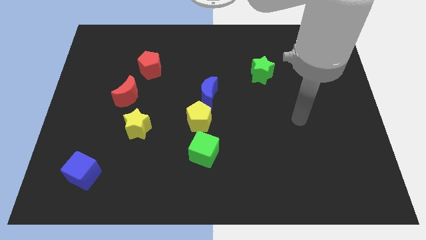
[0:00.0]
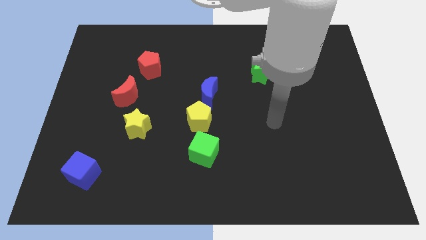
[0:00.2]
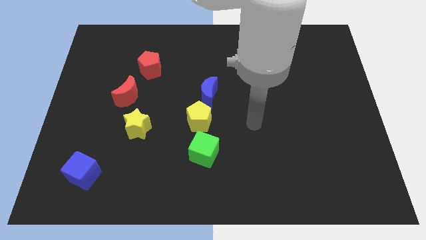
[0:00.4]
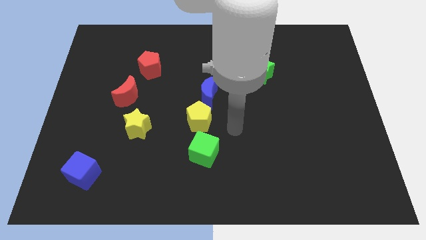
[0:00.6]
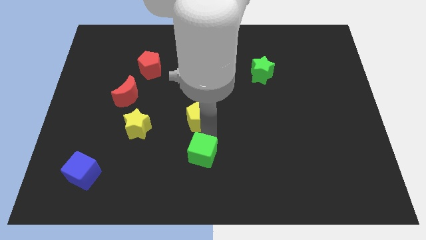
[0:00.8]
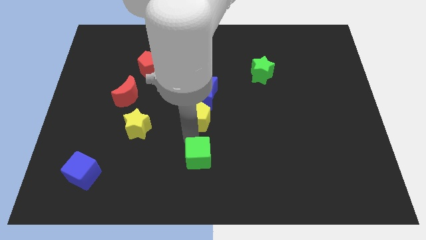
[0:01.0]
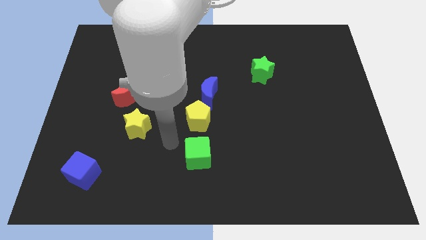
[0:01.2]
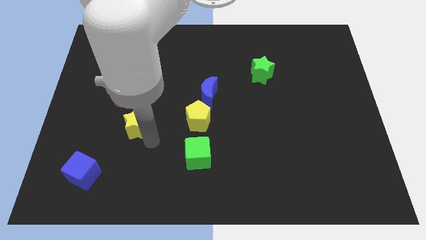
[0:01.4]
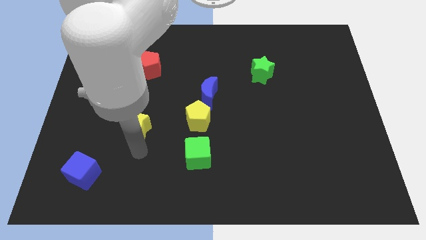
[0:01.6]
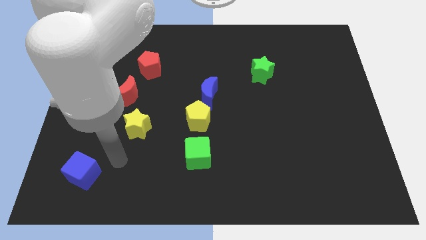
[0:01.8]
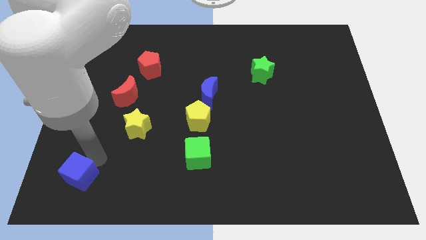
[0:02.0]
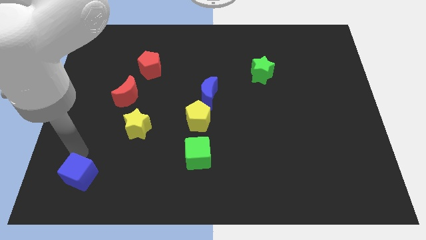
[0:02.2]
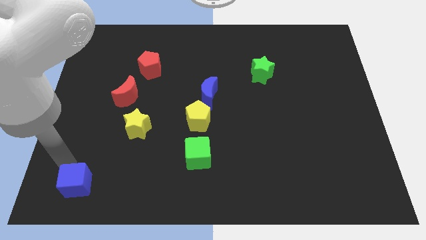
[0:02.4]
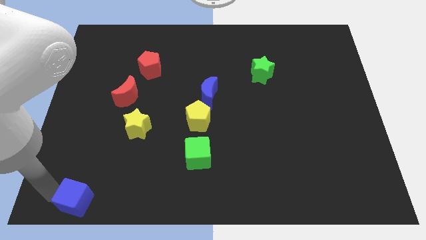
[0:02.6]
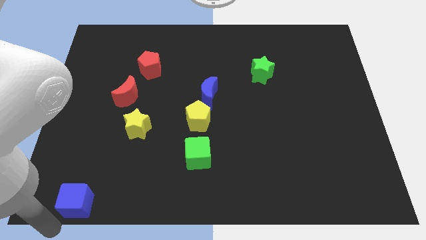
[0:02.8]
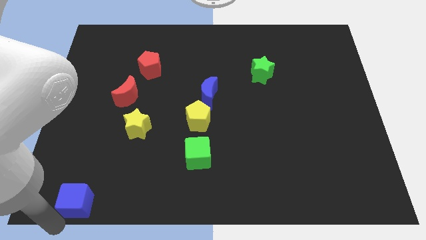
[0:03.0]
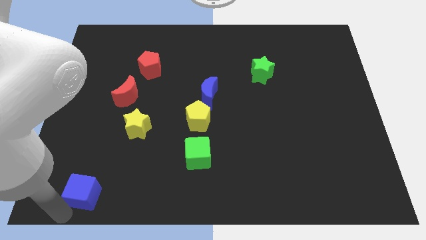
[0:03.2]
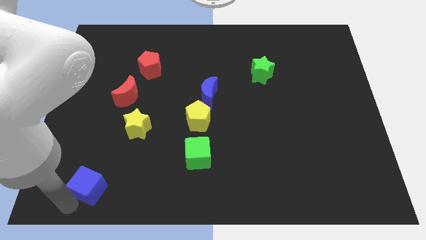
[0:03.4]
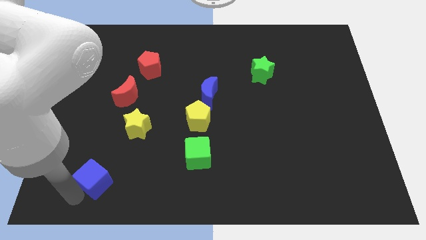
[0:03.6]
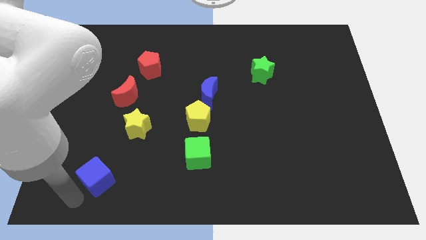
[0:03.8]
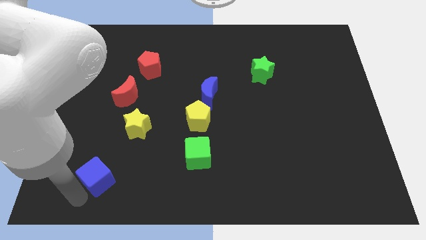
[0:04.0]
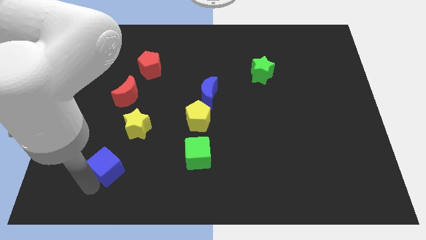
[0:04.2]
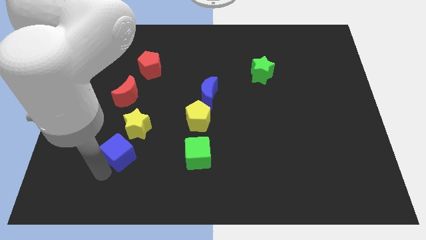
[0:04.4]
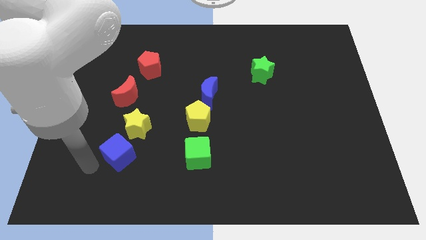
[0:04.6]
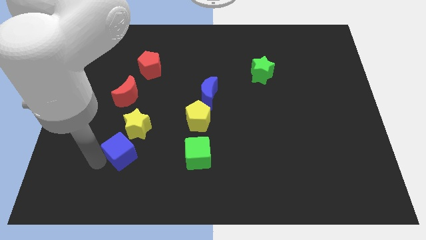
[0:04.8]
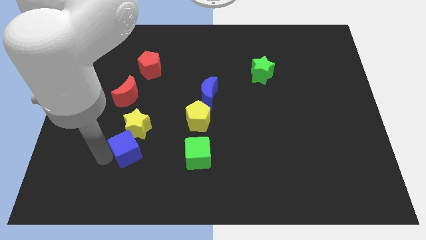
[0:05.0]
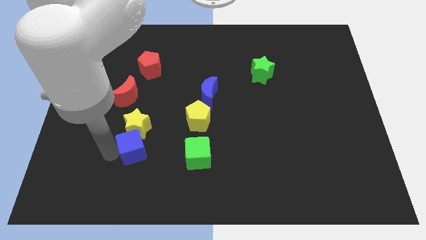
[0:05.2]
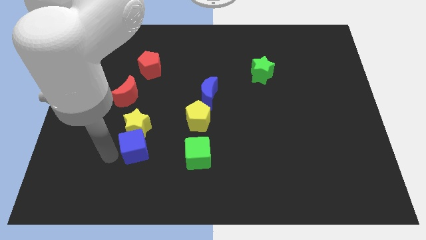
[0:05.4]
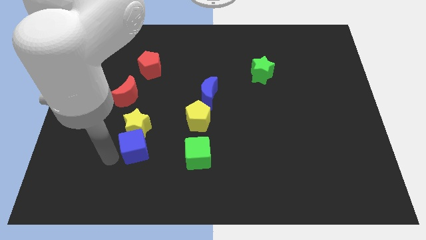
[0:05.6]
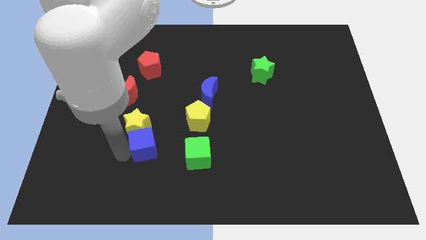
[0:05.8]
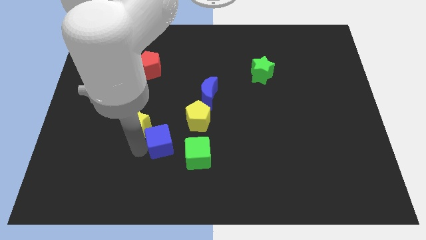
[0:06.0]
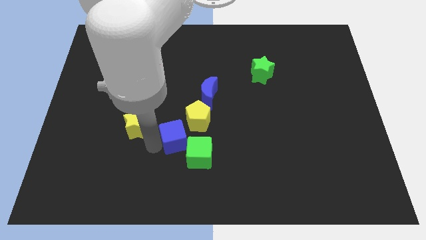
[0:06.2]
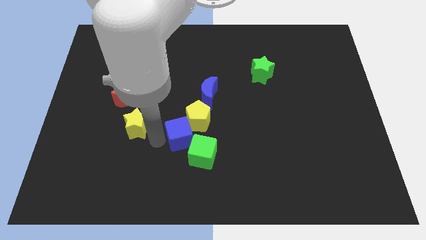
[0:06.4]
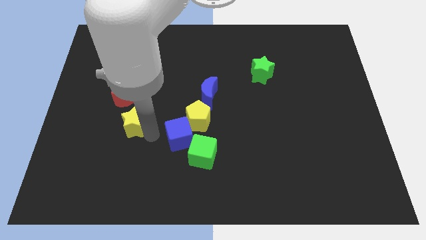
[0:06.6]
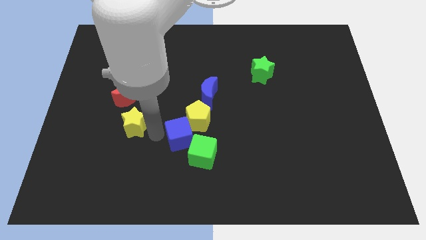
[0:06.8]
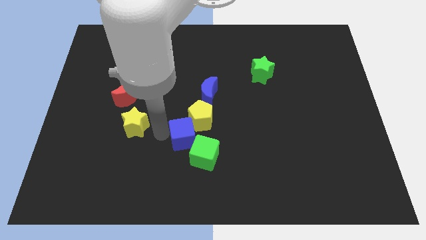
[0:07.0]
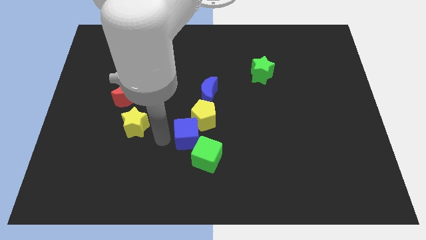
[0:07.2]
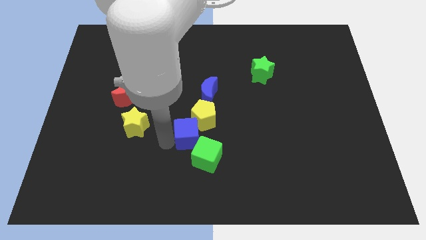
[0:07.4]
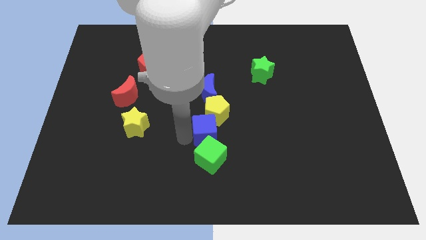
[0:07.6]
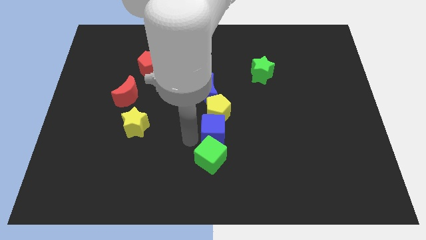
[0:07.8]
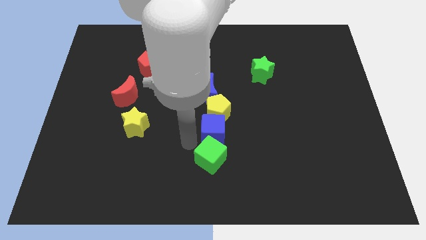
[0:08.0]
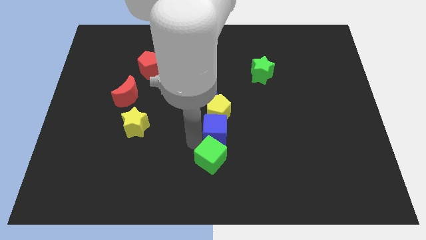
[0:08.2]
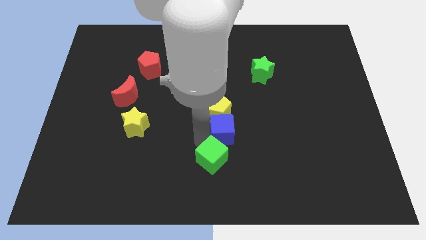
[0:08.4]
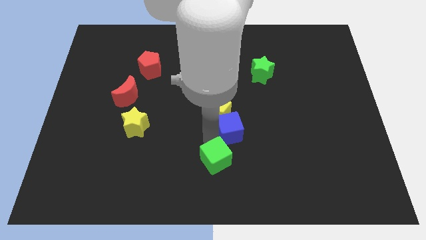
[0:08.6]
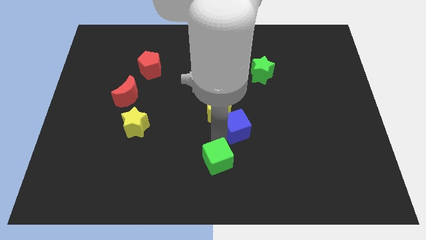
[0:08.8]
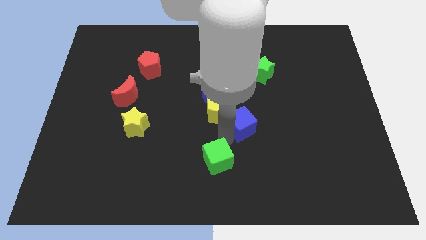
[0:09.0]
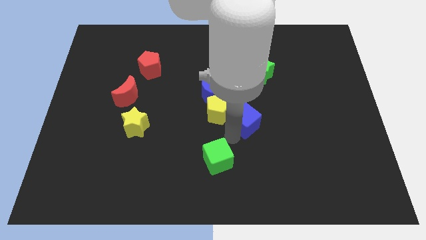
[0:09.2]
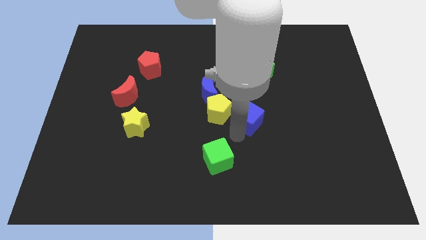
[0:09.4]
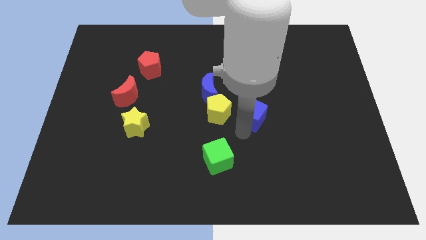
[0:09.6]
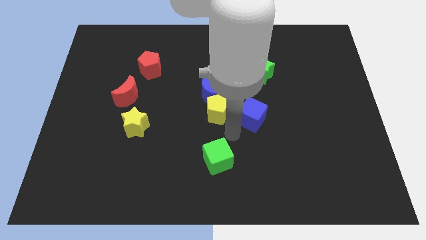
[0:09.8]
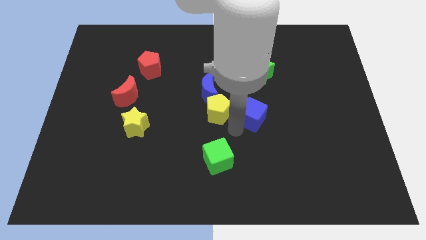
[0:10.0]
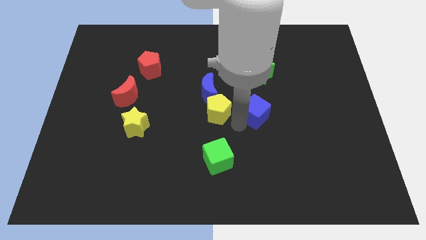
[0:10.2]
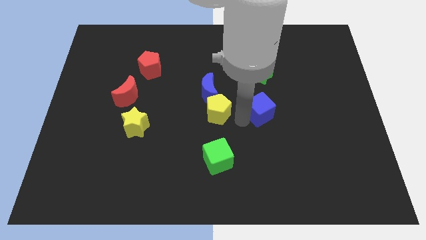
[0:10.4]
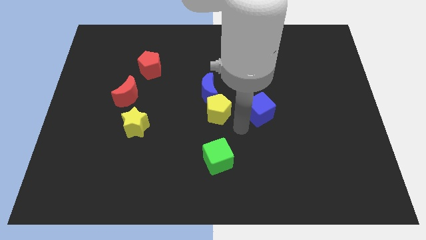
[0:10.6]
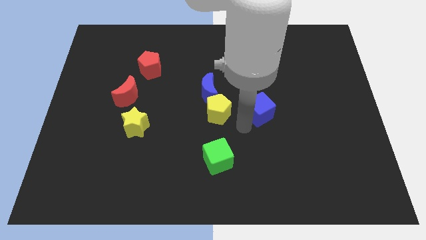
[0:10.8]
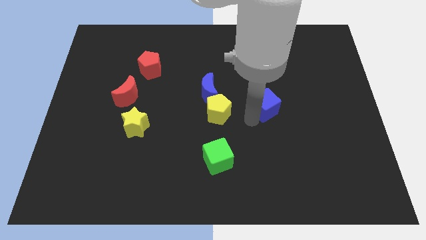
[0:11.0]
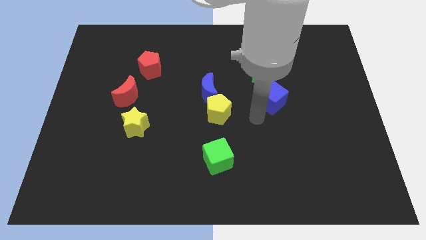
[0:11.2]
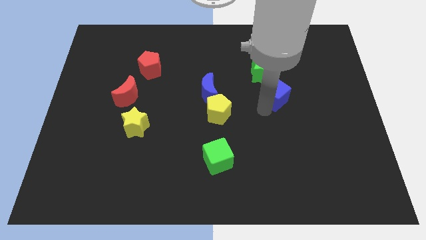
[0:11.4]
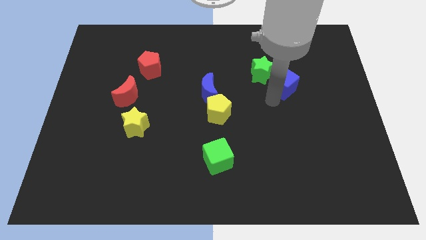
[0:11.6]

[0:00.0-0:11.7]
push the blue cube just right of the green star

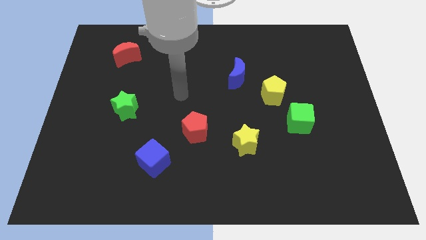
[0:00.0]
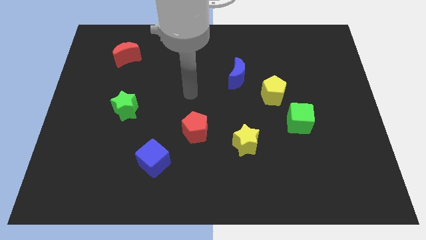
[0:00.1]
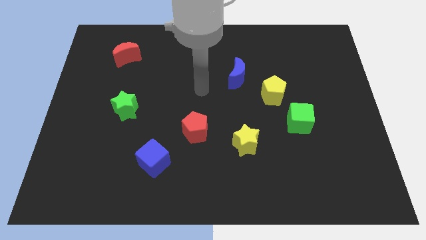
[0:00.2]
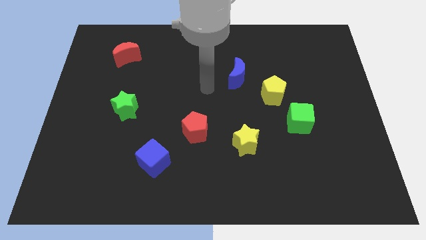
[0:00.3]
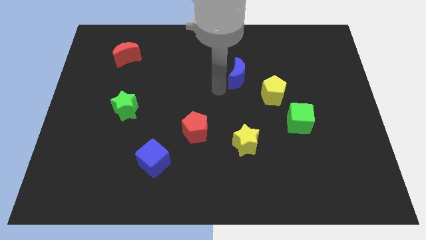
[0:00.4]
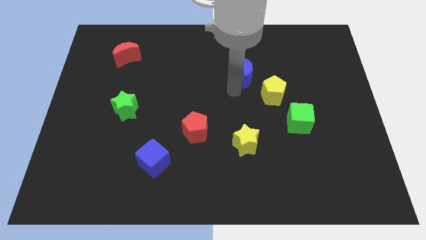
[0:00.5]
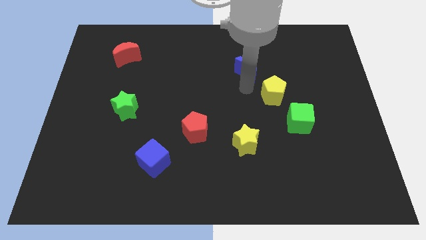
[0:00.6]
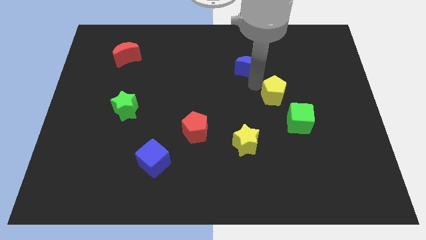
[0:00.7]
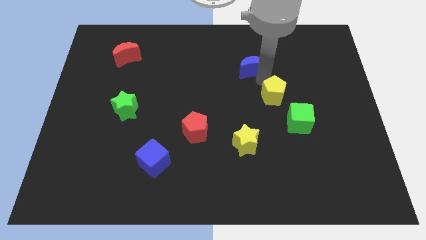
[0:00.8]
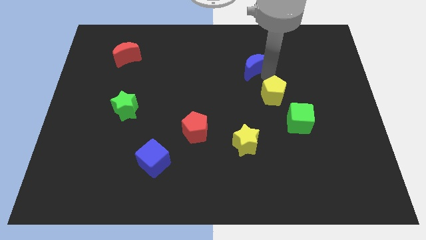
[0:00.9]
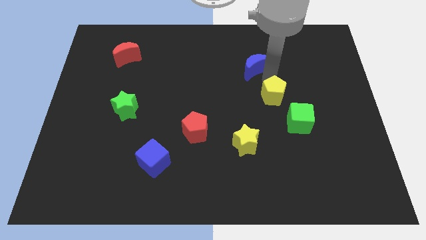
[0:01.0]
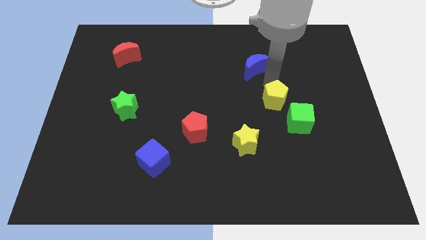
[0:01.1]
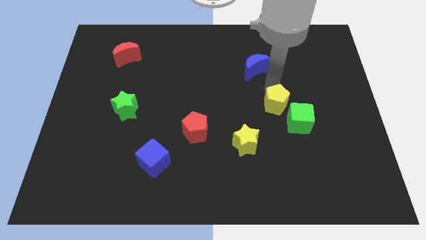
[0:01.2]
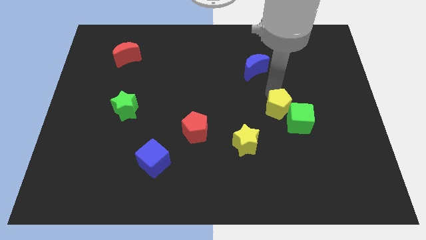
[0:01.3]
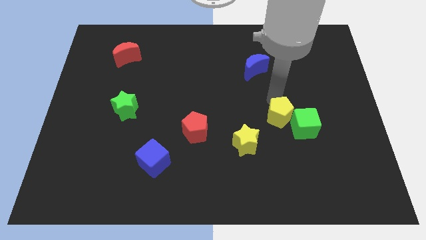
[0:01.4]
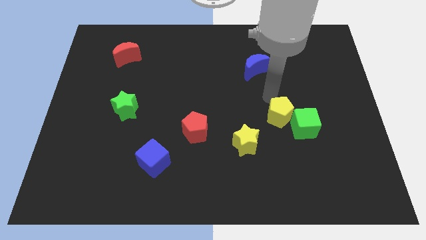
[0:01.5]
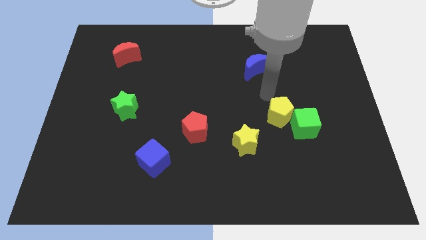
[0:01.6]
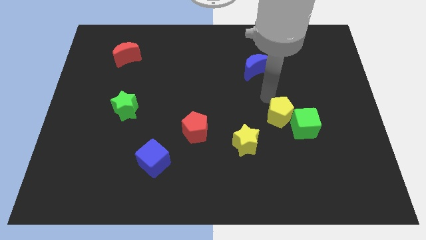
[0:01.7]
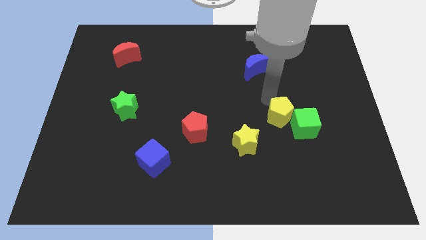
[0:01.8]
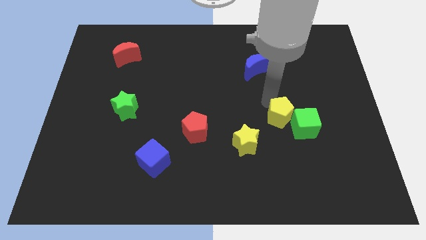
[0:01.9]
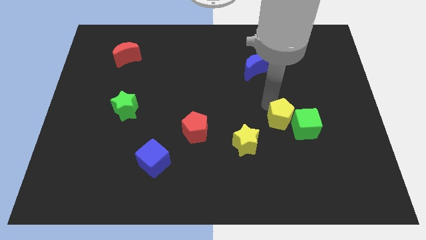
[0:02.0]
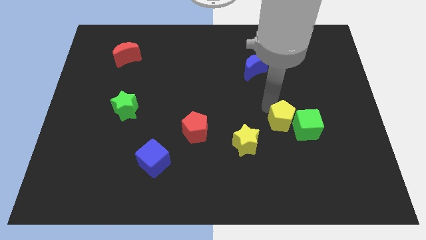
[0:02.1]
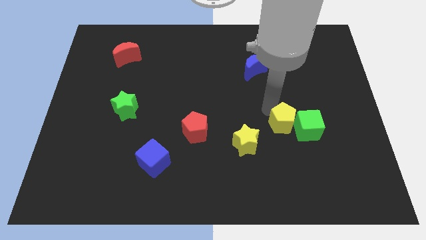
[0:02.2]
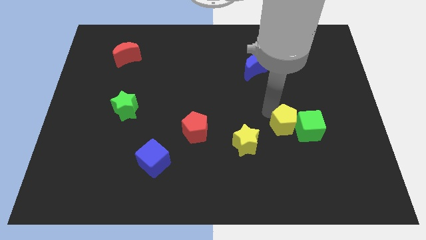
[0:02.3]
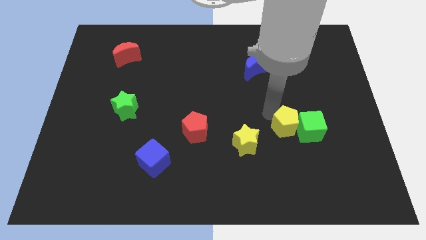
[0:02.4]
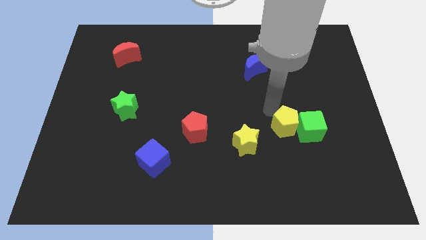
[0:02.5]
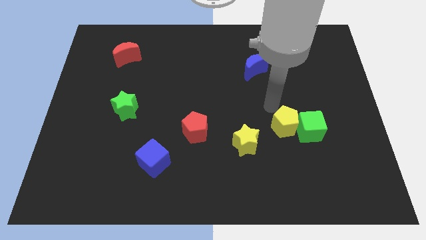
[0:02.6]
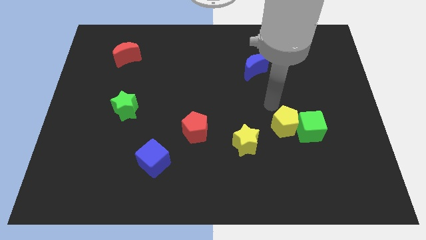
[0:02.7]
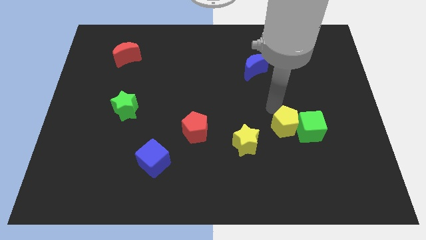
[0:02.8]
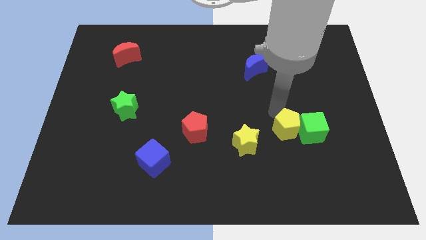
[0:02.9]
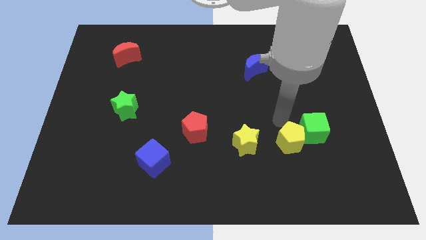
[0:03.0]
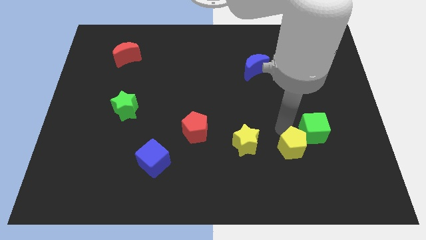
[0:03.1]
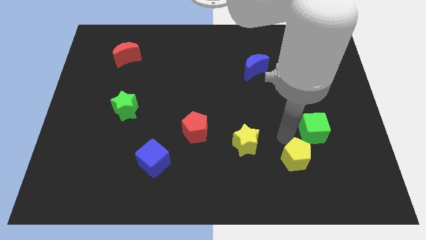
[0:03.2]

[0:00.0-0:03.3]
move the yellow pentagon to the bottom of the green cube
